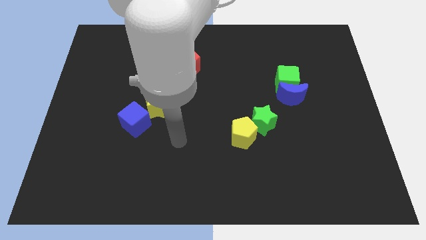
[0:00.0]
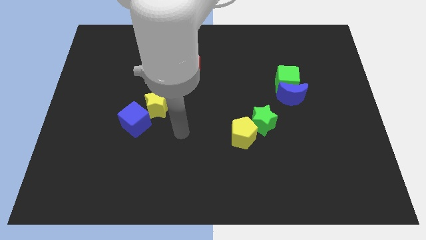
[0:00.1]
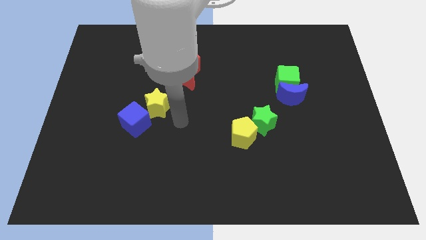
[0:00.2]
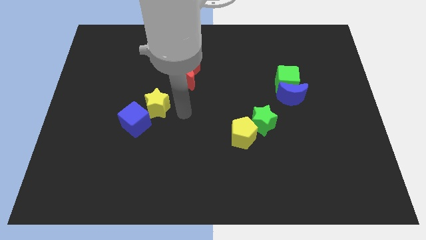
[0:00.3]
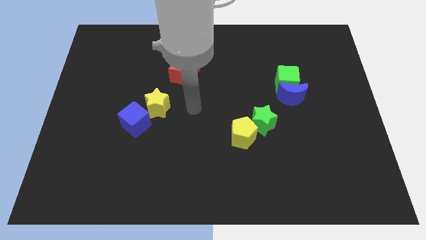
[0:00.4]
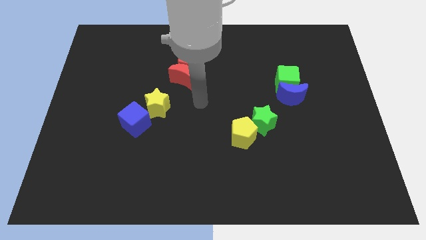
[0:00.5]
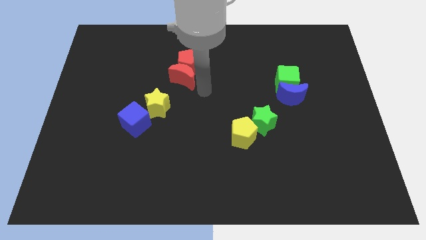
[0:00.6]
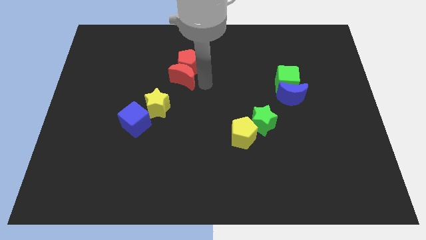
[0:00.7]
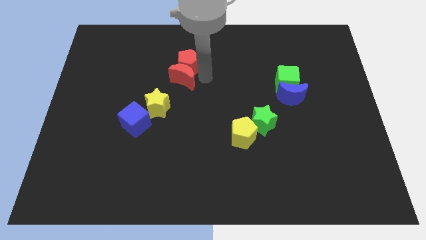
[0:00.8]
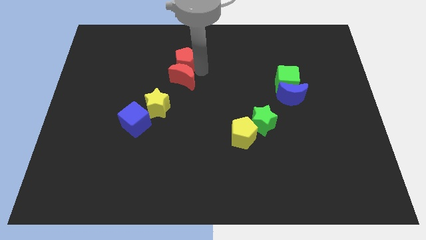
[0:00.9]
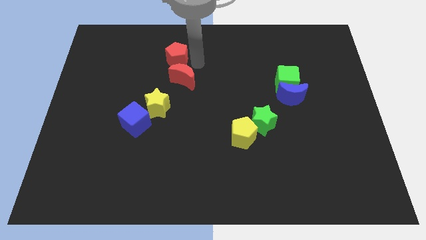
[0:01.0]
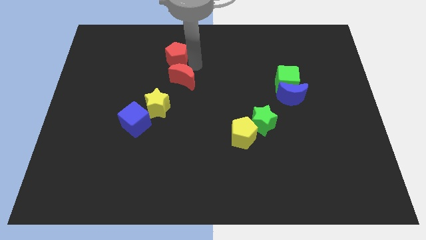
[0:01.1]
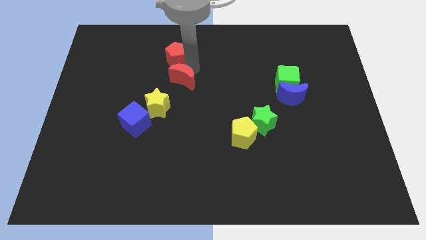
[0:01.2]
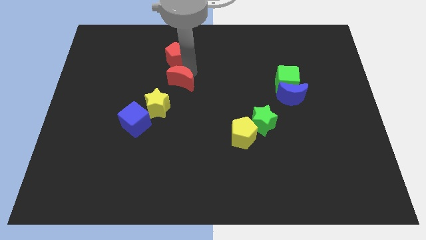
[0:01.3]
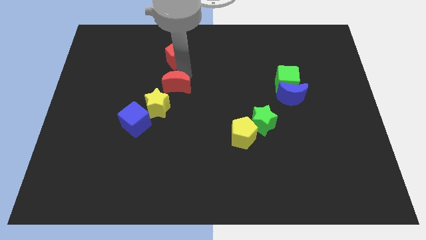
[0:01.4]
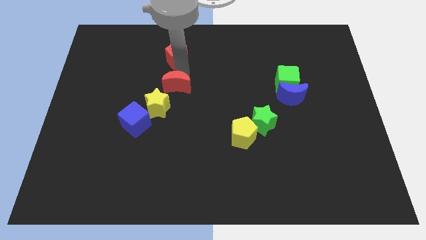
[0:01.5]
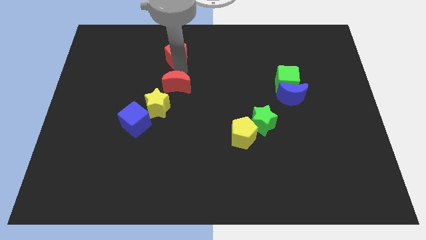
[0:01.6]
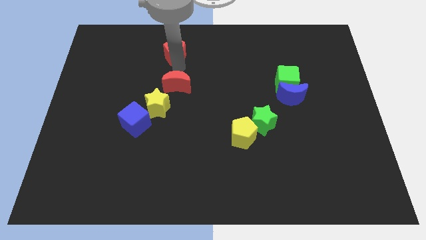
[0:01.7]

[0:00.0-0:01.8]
move the red moon away from the red pentagon

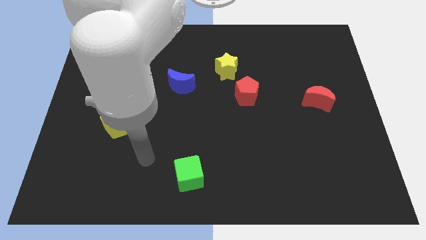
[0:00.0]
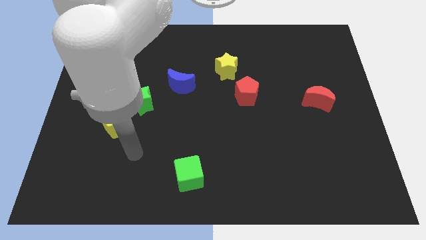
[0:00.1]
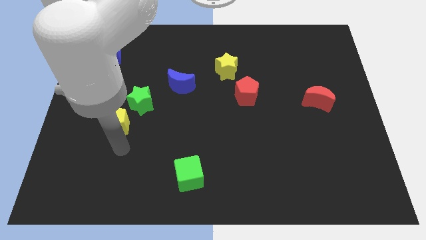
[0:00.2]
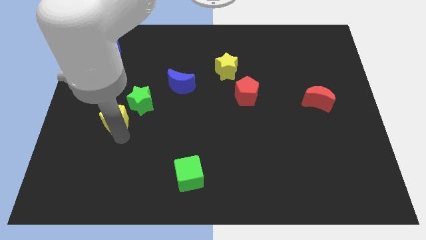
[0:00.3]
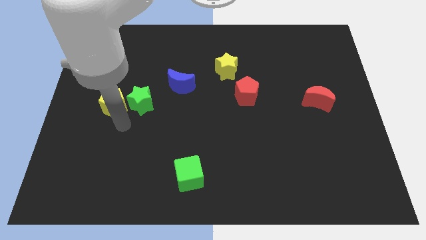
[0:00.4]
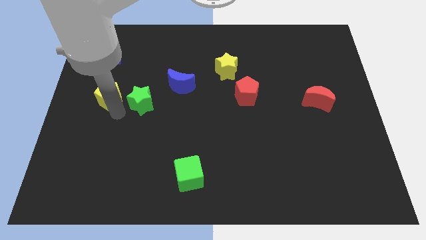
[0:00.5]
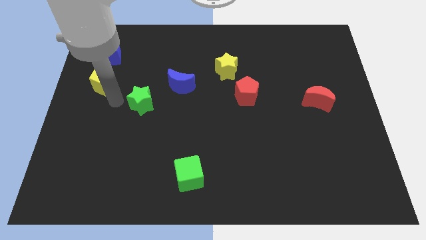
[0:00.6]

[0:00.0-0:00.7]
move the green star away from the yellow pentagon

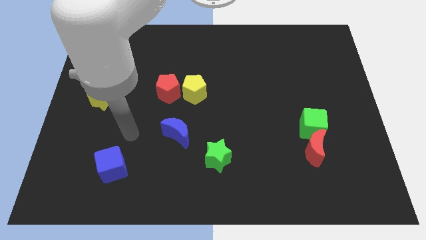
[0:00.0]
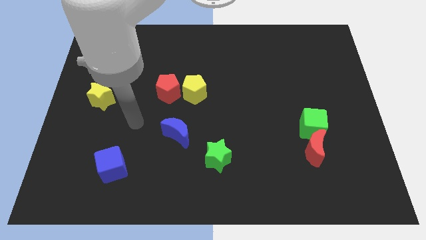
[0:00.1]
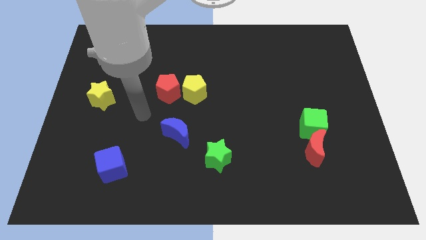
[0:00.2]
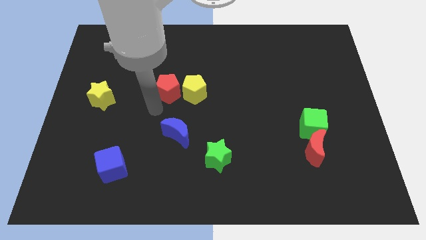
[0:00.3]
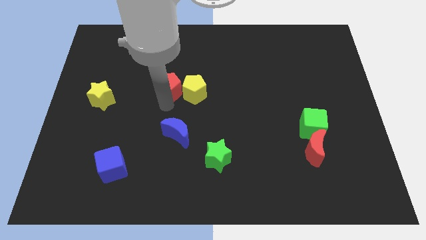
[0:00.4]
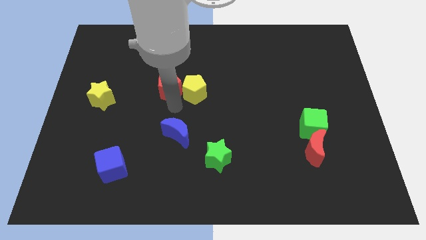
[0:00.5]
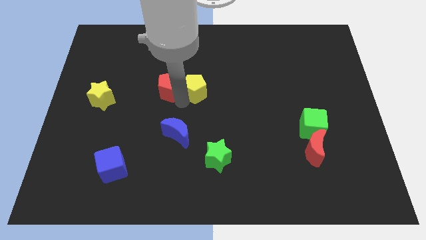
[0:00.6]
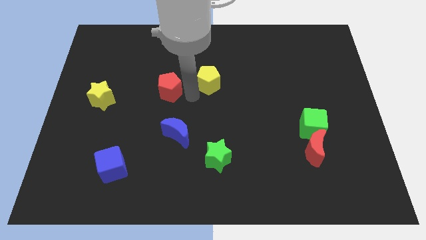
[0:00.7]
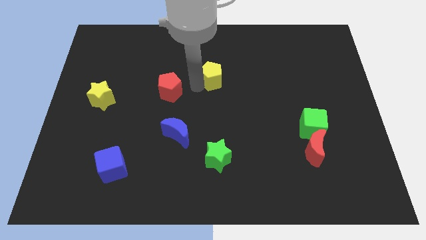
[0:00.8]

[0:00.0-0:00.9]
move the red pentagon away from the yellow pentagon

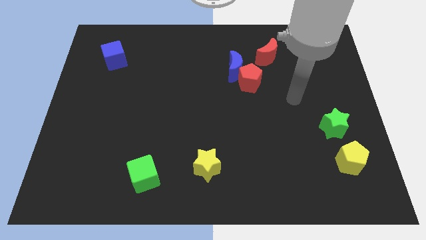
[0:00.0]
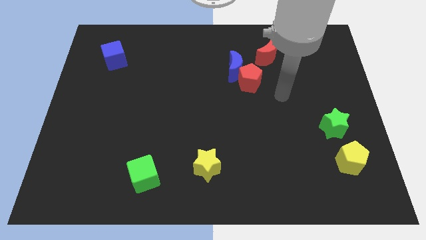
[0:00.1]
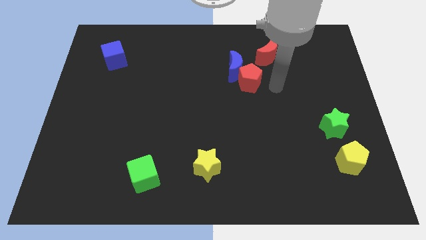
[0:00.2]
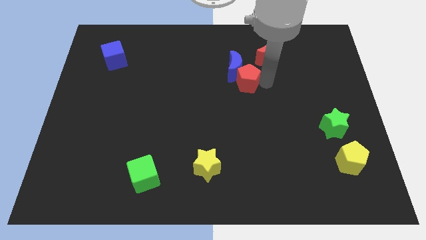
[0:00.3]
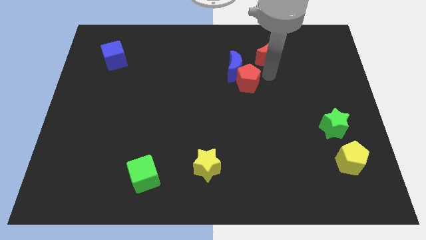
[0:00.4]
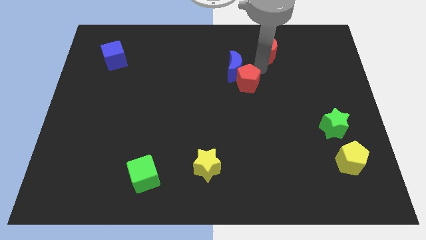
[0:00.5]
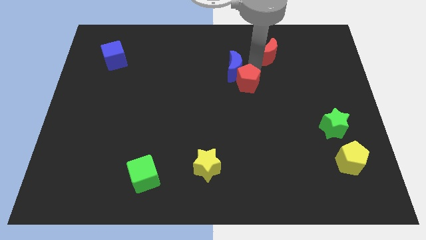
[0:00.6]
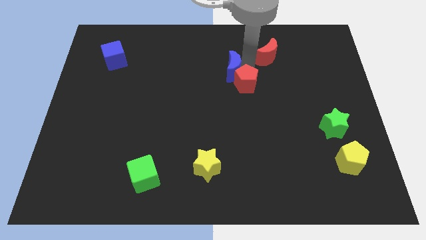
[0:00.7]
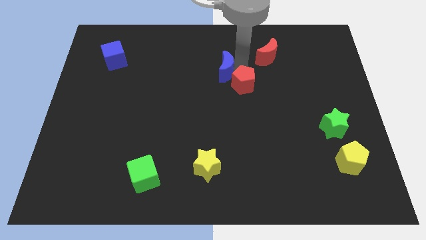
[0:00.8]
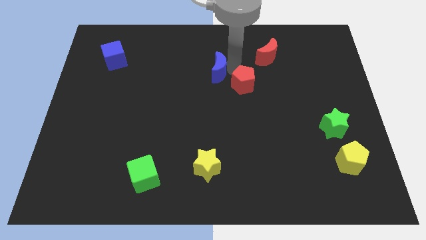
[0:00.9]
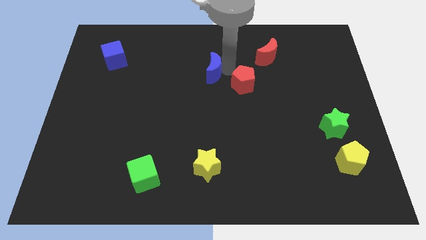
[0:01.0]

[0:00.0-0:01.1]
pull the blue moon apart from the red pentagon and red moon

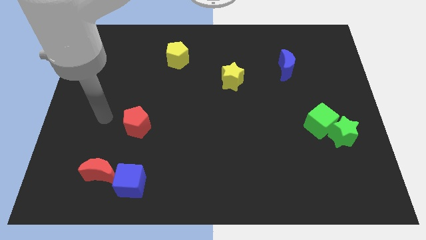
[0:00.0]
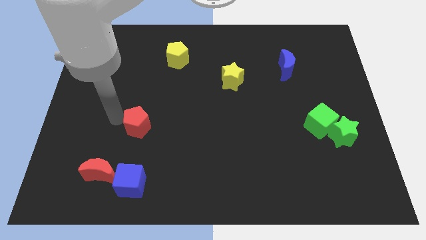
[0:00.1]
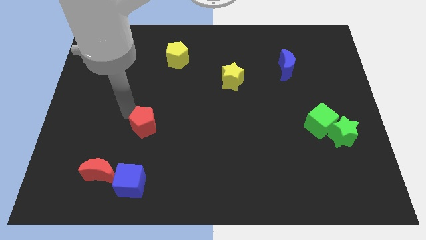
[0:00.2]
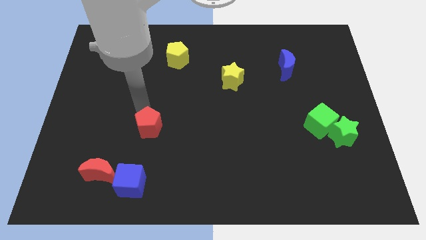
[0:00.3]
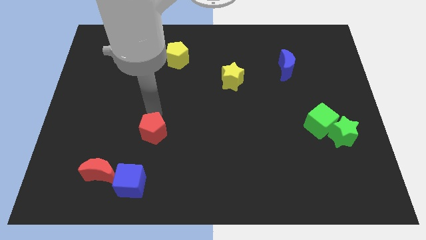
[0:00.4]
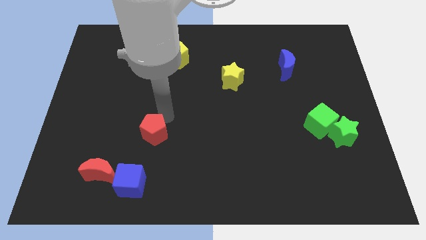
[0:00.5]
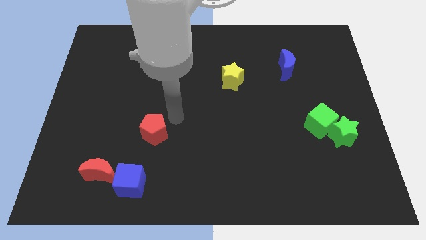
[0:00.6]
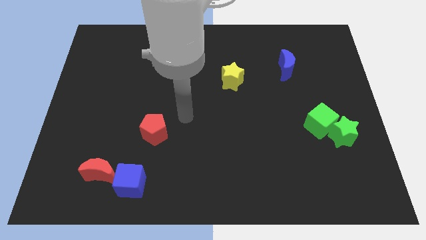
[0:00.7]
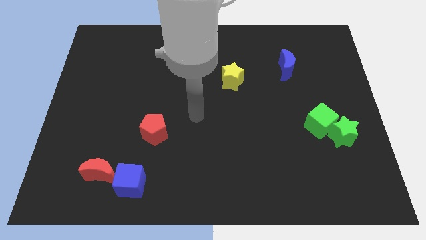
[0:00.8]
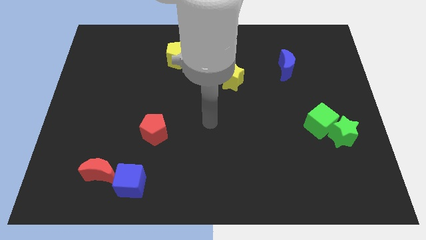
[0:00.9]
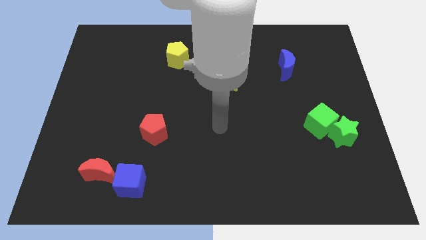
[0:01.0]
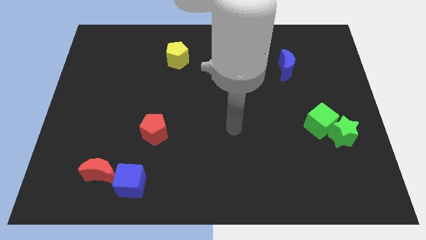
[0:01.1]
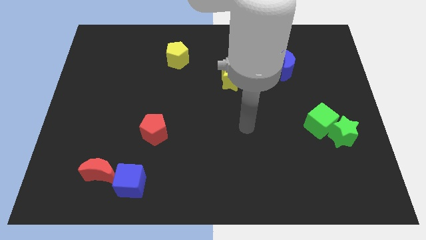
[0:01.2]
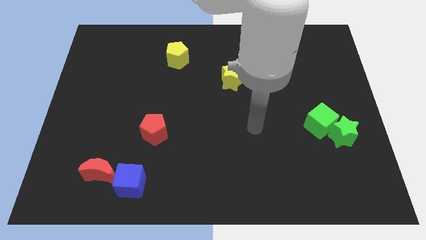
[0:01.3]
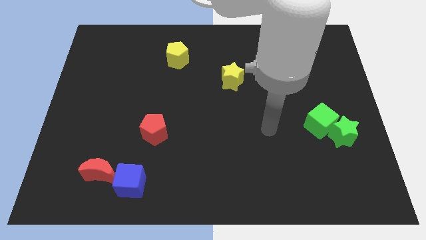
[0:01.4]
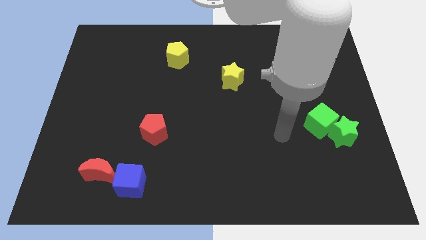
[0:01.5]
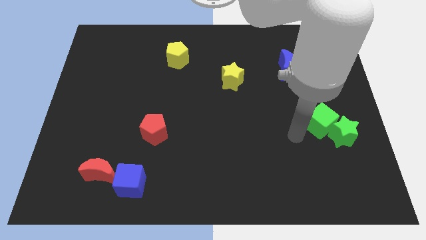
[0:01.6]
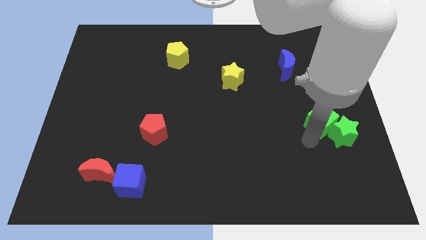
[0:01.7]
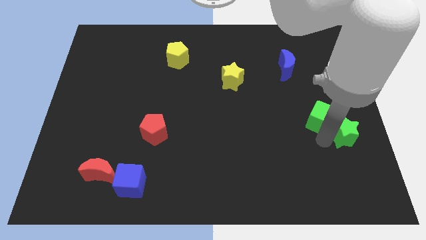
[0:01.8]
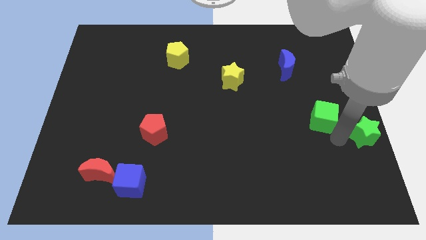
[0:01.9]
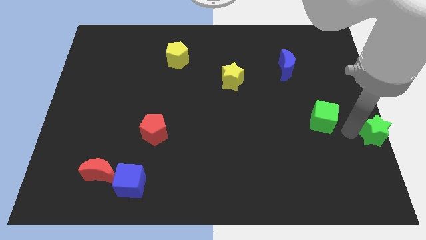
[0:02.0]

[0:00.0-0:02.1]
separate the green cube from the green star

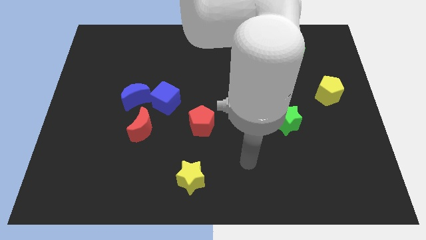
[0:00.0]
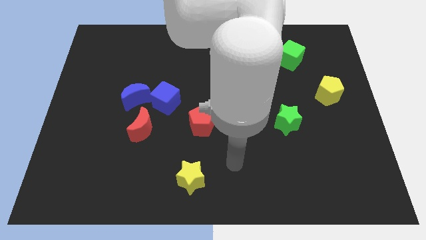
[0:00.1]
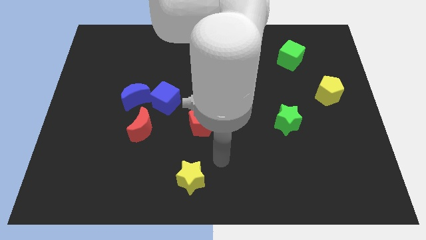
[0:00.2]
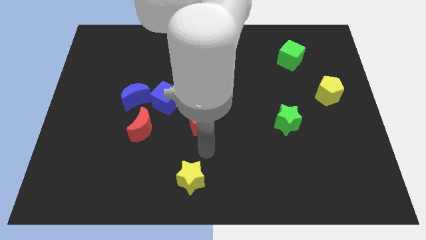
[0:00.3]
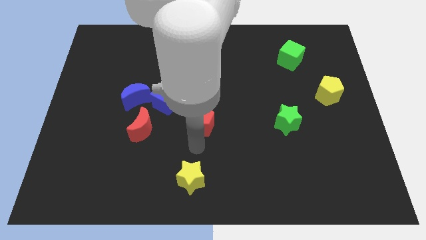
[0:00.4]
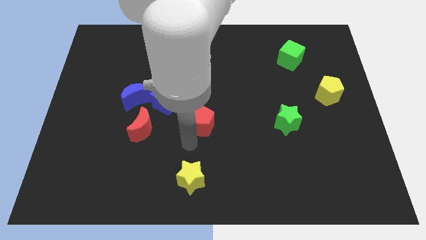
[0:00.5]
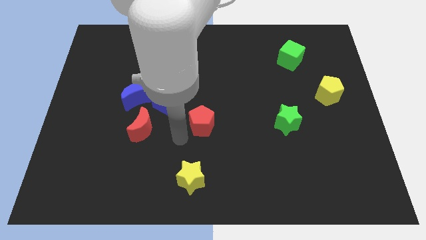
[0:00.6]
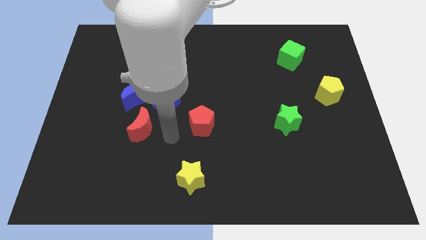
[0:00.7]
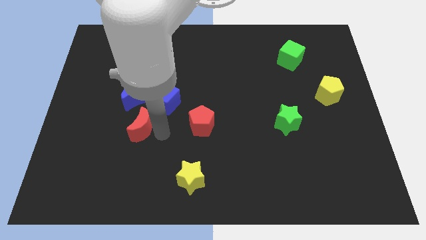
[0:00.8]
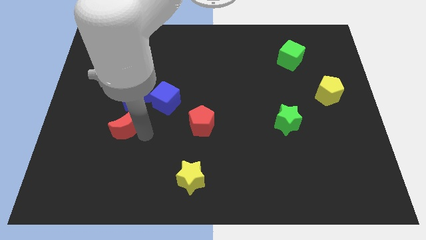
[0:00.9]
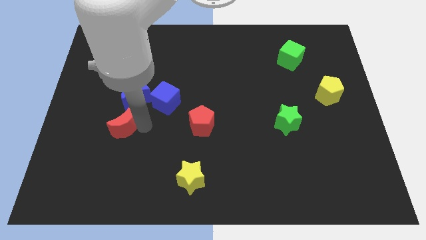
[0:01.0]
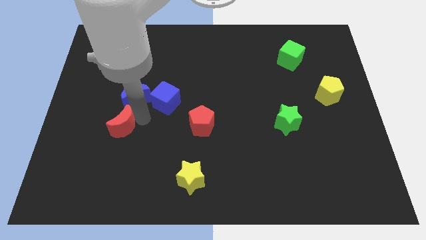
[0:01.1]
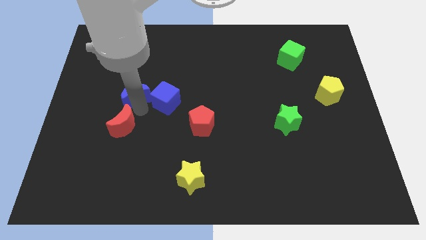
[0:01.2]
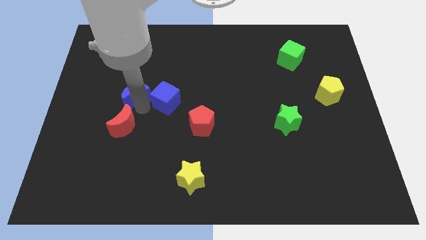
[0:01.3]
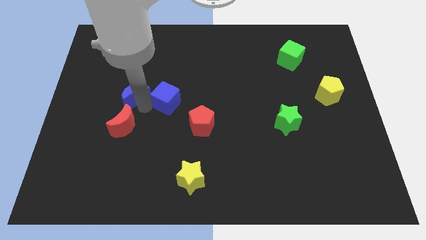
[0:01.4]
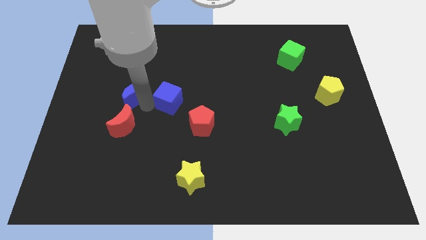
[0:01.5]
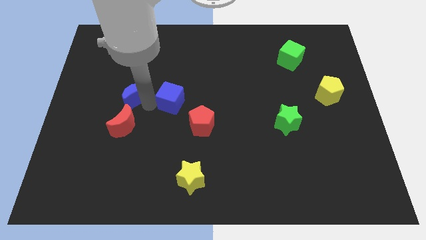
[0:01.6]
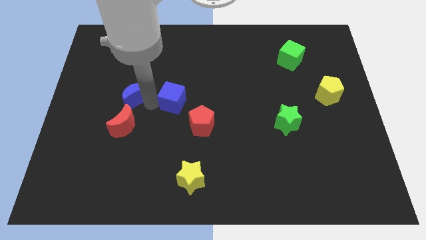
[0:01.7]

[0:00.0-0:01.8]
separate the blue cube from the blue moon and red moon

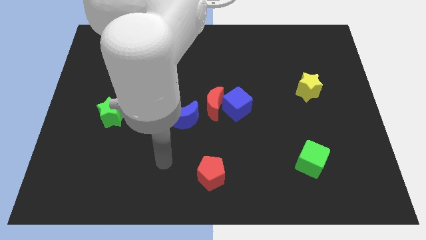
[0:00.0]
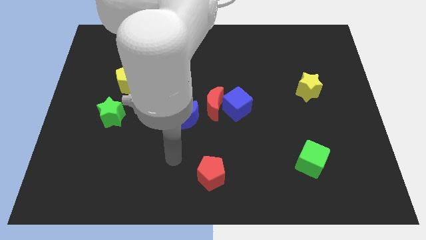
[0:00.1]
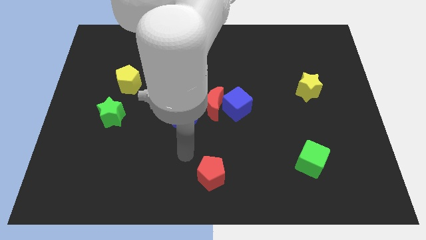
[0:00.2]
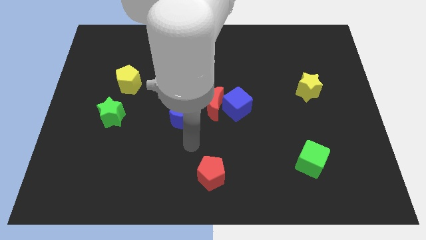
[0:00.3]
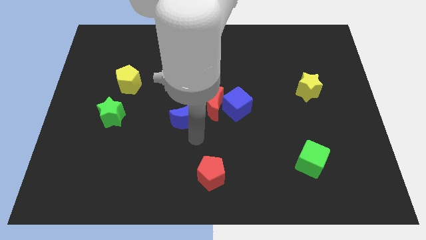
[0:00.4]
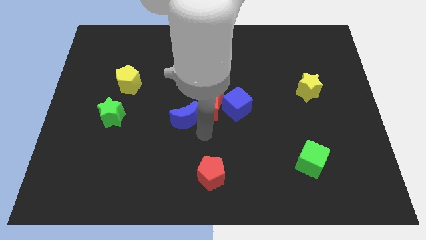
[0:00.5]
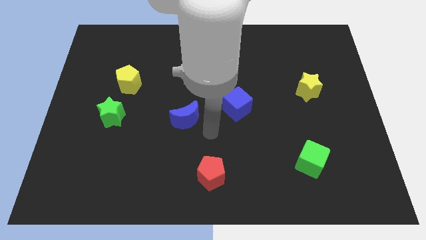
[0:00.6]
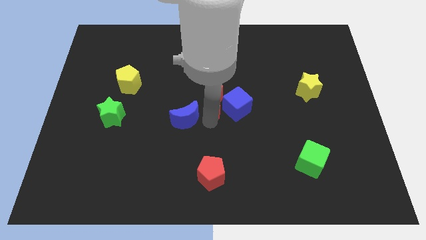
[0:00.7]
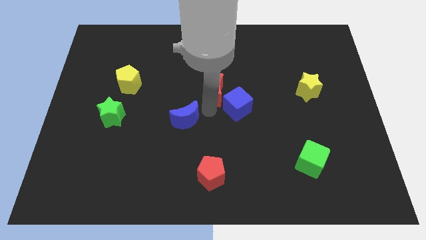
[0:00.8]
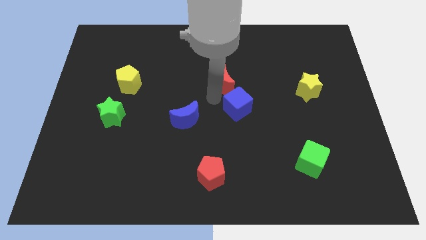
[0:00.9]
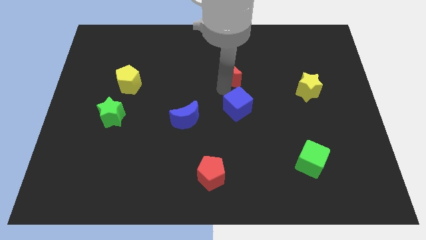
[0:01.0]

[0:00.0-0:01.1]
move the blue cube away from the red moon
